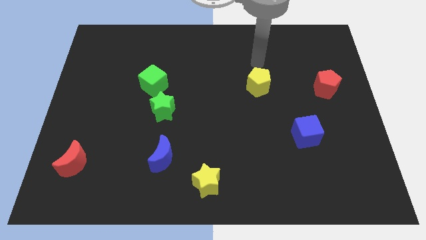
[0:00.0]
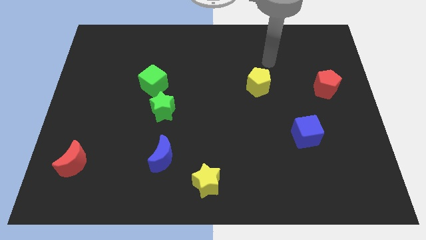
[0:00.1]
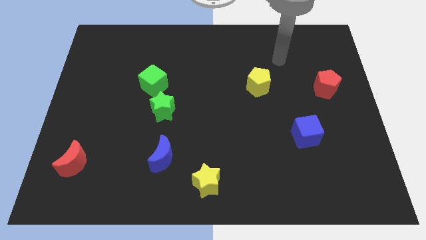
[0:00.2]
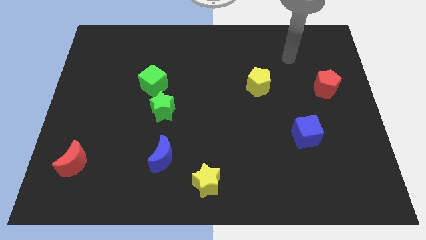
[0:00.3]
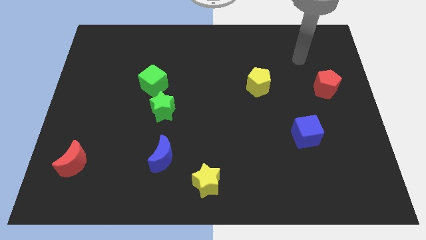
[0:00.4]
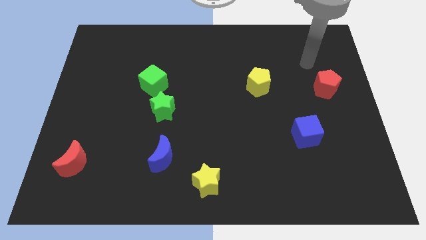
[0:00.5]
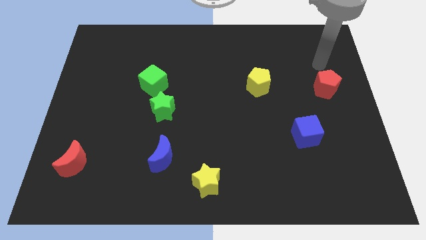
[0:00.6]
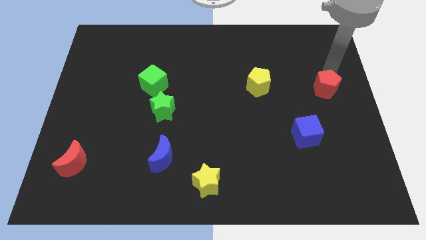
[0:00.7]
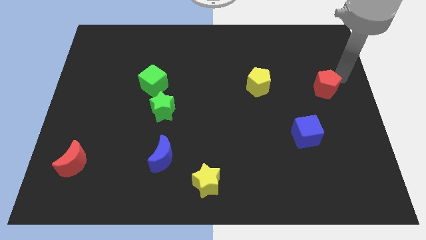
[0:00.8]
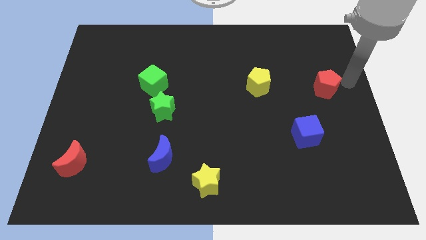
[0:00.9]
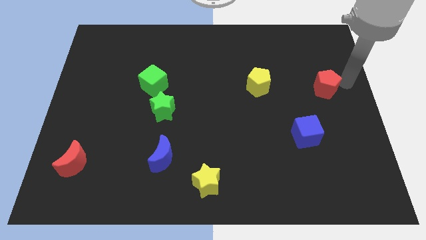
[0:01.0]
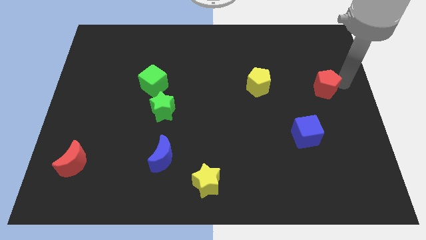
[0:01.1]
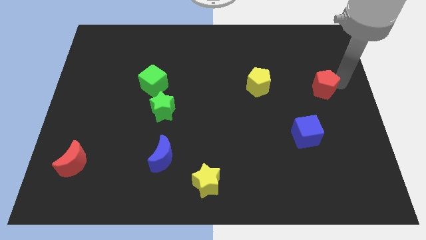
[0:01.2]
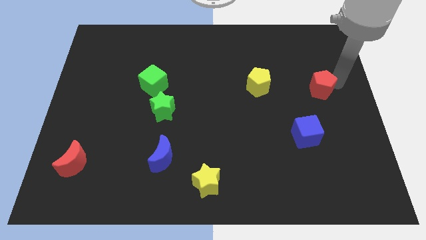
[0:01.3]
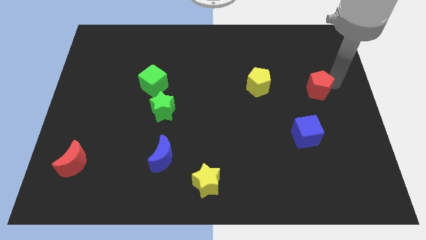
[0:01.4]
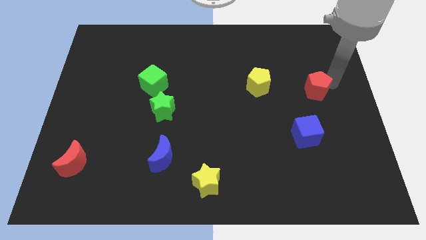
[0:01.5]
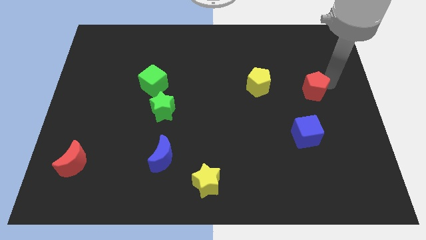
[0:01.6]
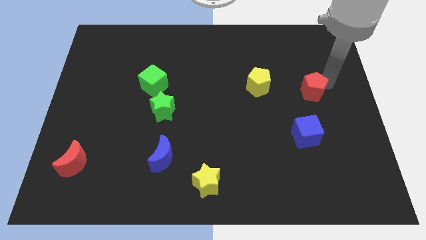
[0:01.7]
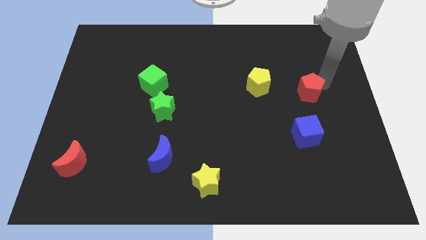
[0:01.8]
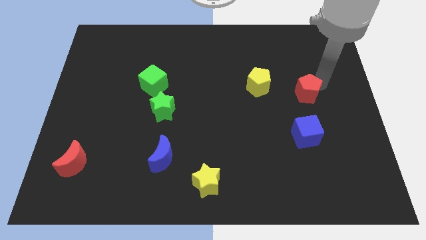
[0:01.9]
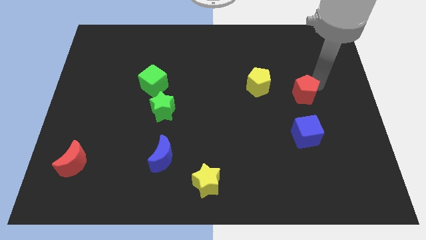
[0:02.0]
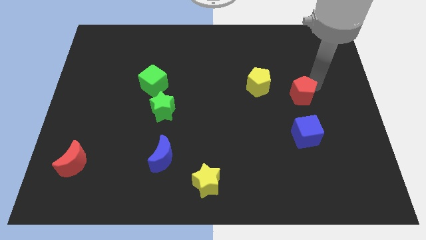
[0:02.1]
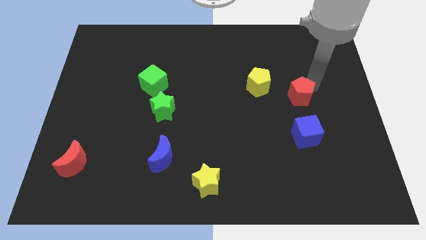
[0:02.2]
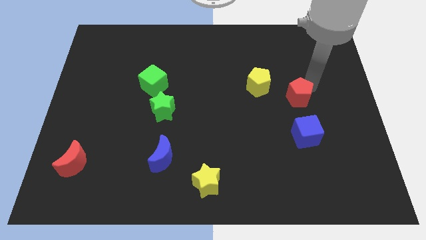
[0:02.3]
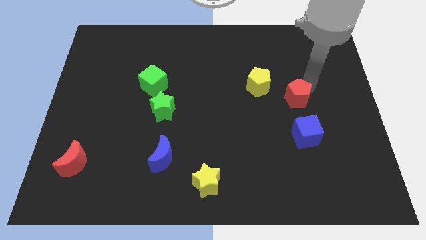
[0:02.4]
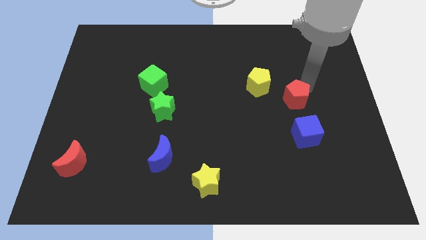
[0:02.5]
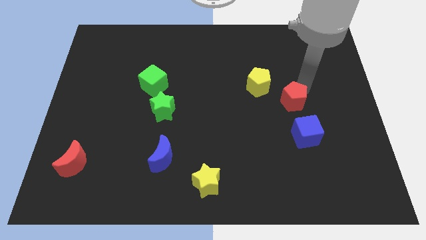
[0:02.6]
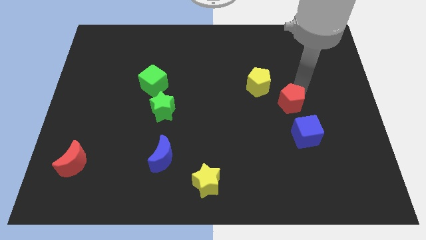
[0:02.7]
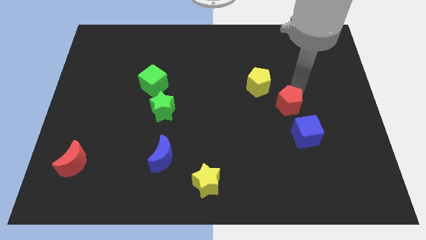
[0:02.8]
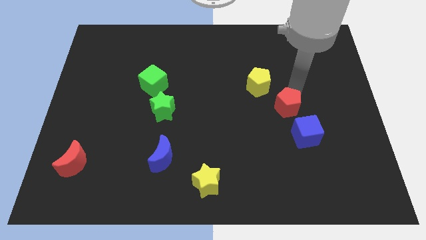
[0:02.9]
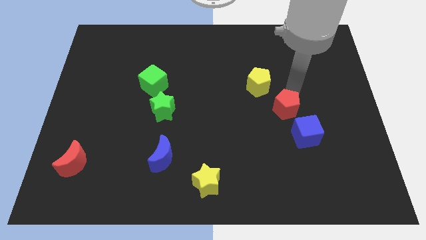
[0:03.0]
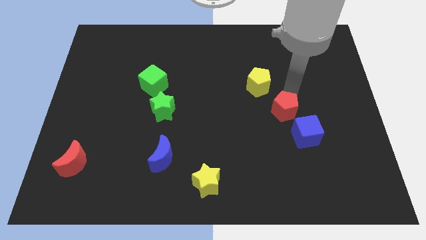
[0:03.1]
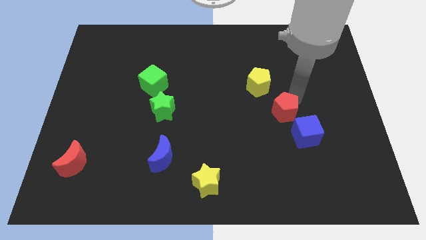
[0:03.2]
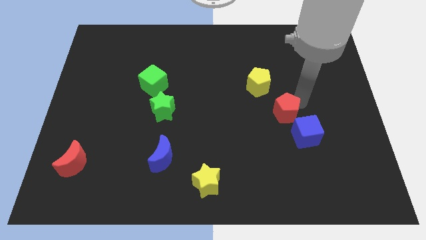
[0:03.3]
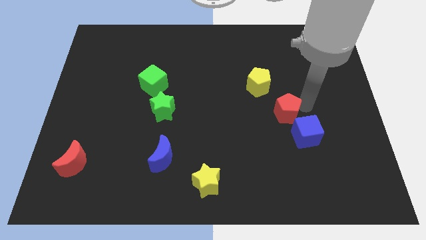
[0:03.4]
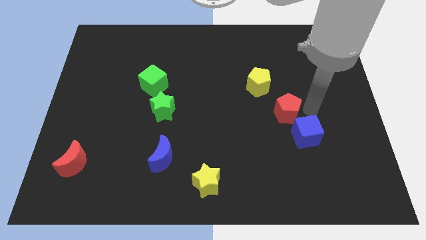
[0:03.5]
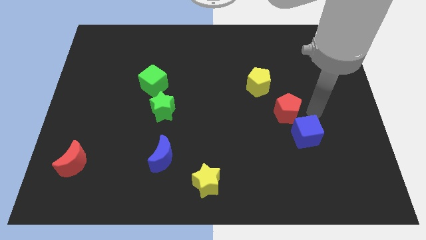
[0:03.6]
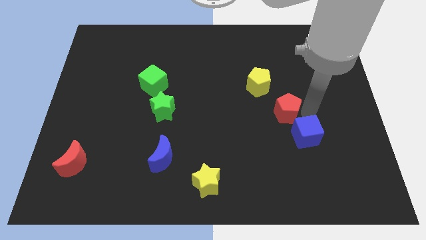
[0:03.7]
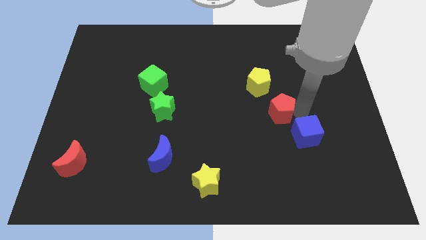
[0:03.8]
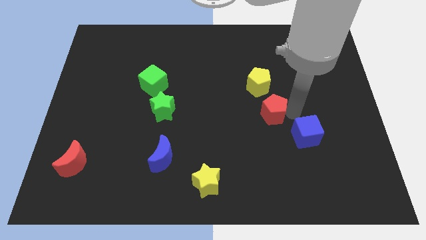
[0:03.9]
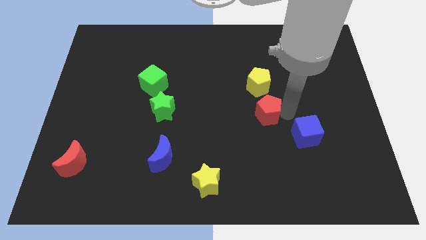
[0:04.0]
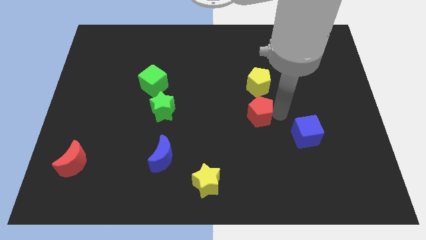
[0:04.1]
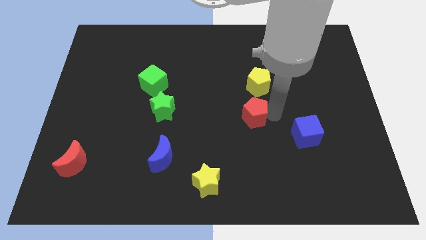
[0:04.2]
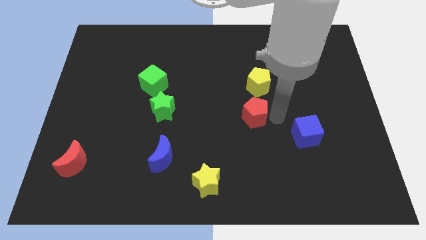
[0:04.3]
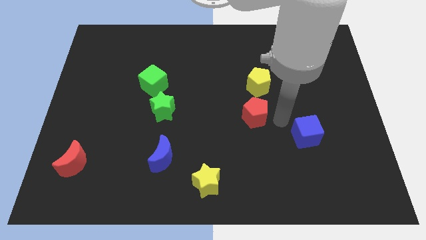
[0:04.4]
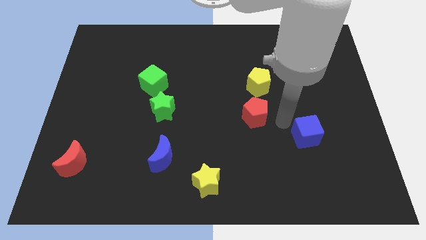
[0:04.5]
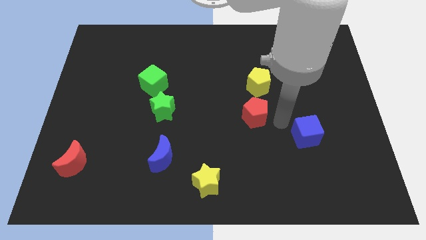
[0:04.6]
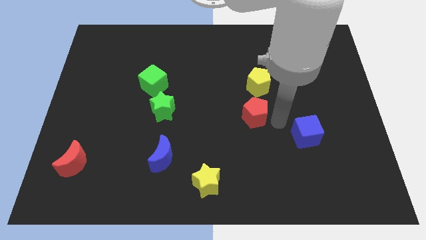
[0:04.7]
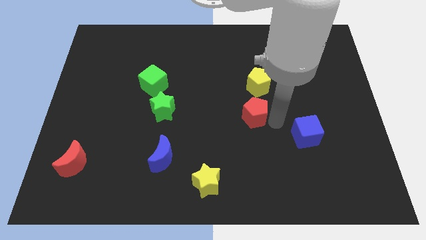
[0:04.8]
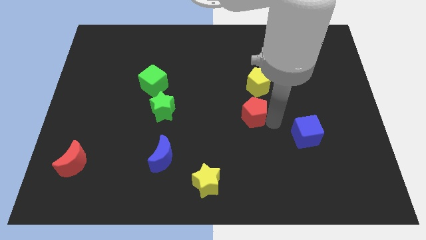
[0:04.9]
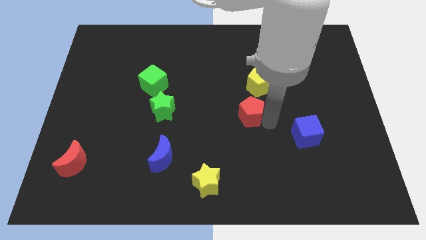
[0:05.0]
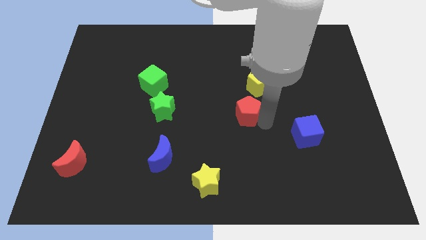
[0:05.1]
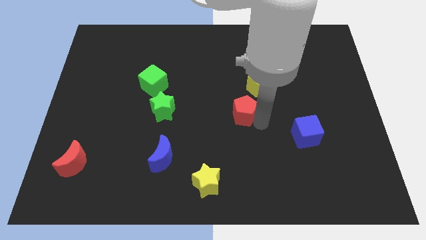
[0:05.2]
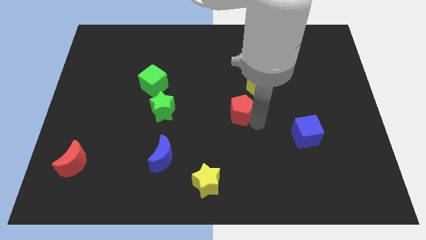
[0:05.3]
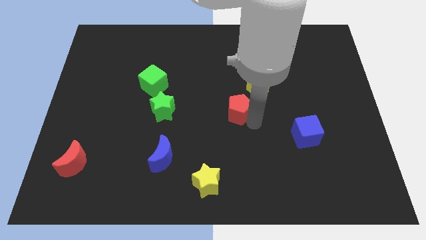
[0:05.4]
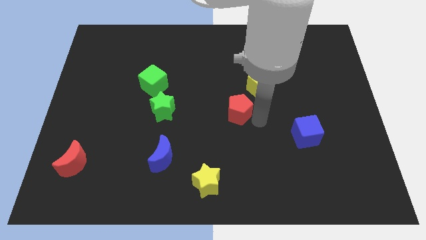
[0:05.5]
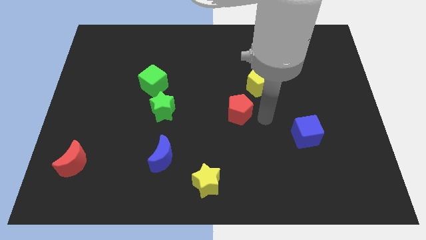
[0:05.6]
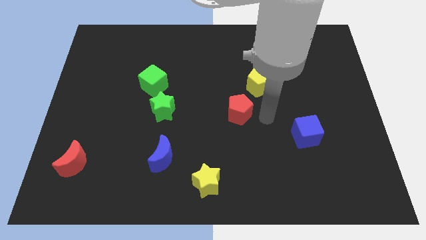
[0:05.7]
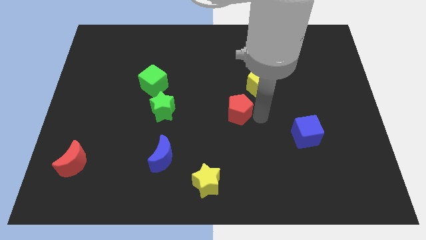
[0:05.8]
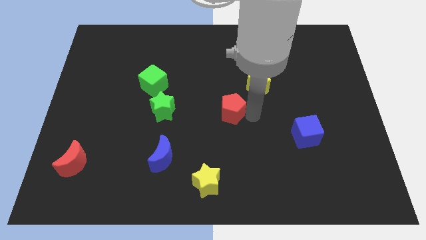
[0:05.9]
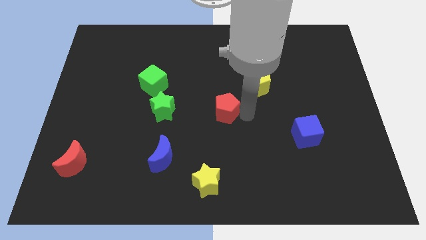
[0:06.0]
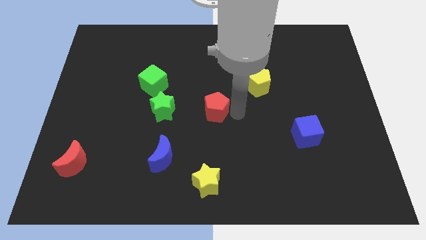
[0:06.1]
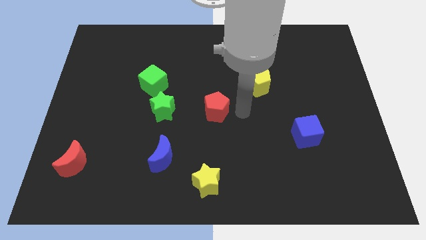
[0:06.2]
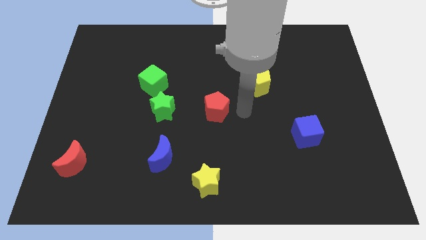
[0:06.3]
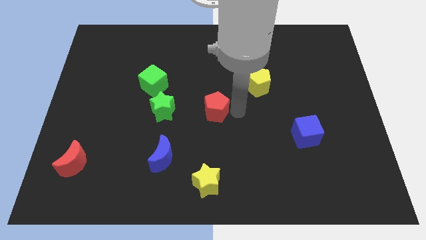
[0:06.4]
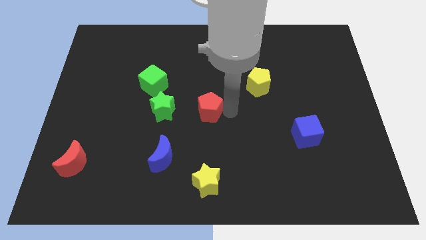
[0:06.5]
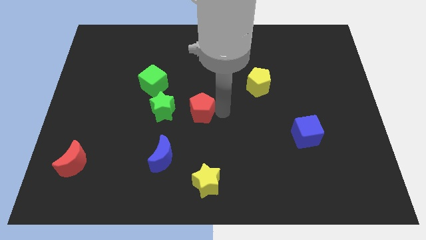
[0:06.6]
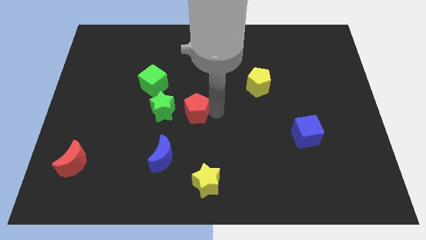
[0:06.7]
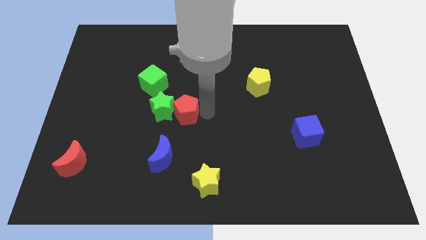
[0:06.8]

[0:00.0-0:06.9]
push the red pentagon next to the green star
